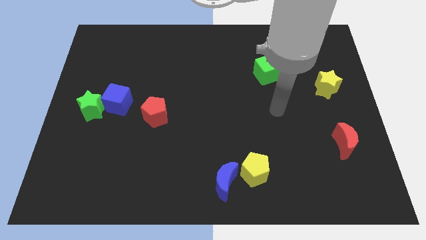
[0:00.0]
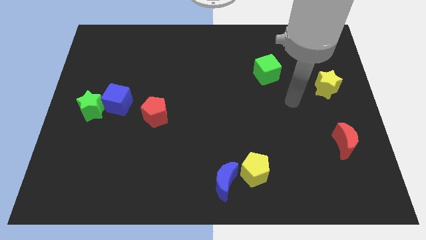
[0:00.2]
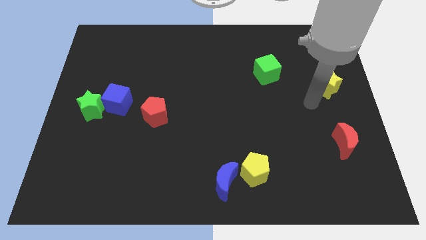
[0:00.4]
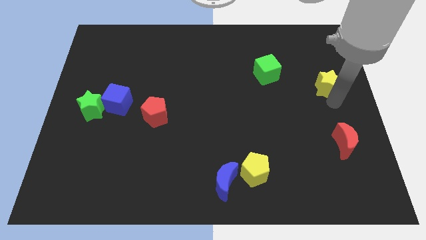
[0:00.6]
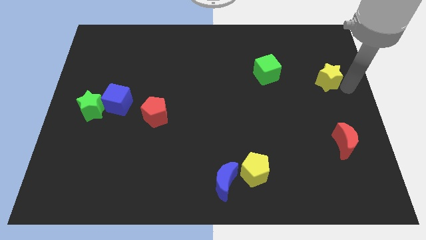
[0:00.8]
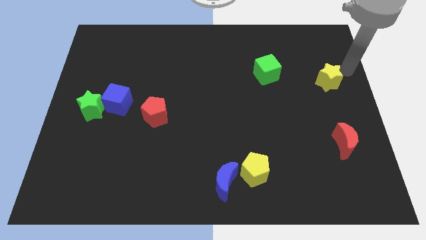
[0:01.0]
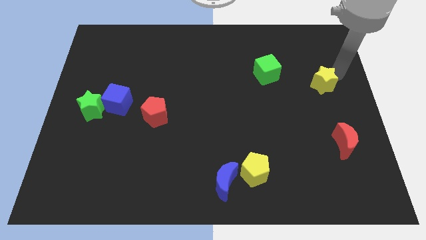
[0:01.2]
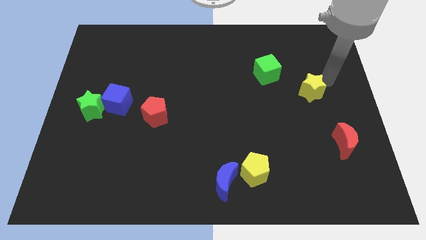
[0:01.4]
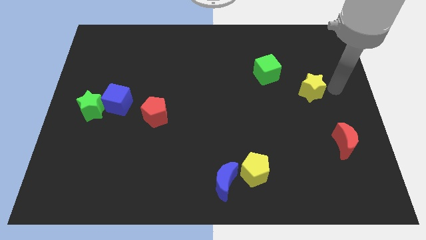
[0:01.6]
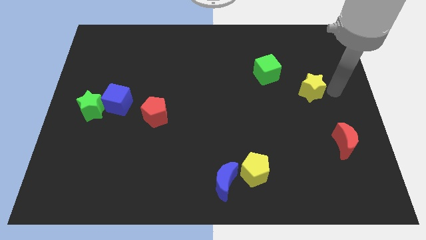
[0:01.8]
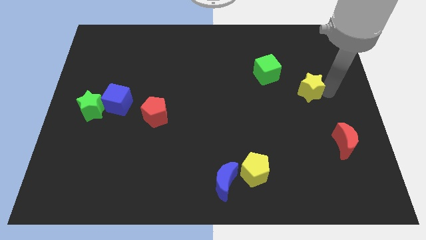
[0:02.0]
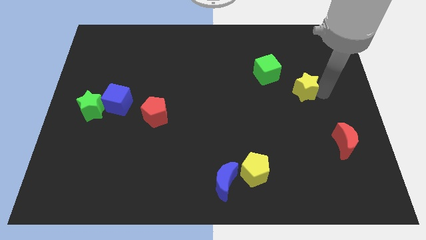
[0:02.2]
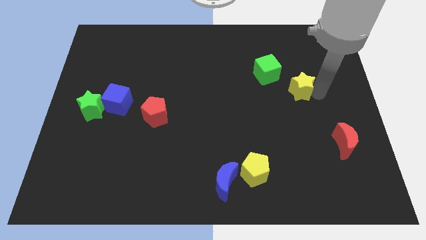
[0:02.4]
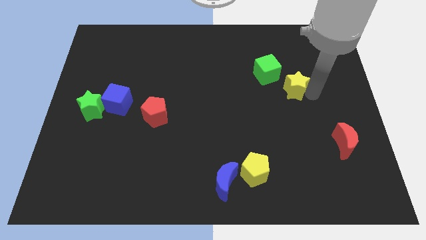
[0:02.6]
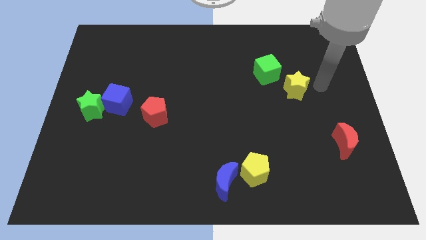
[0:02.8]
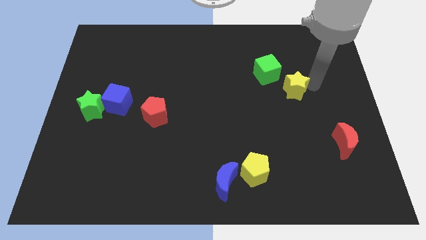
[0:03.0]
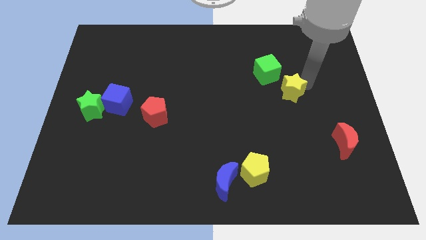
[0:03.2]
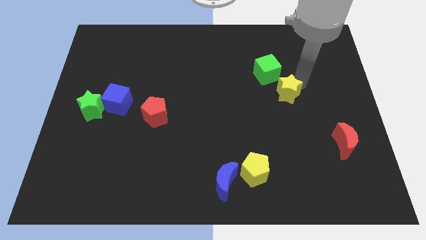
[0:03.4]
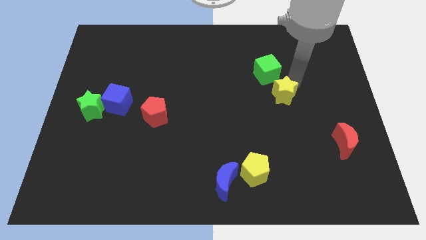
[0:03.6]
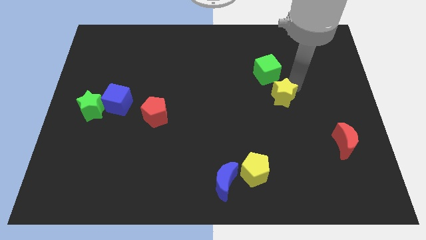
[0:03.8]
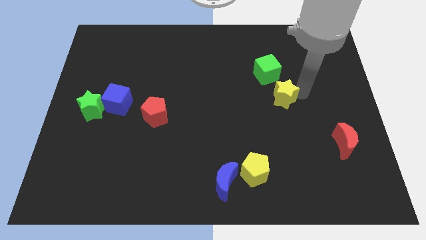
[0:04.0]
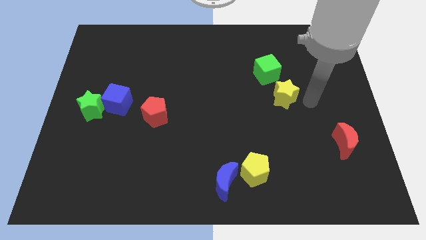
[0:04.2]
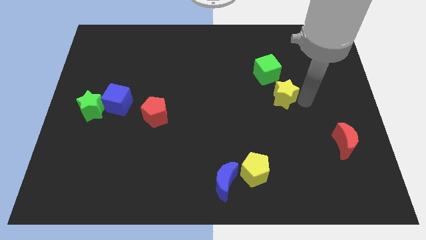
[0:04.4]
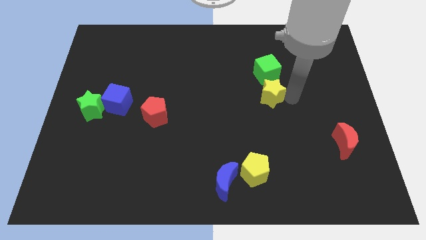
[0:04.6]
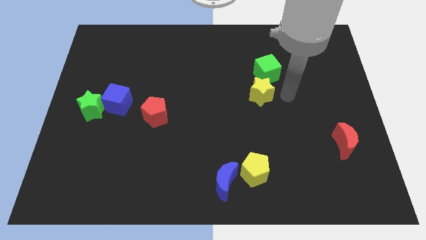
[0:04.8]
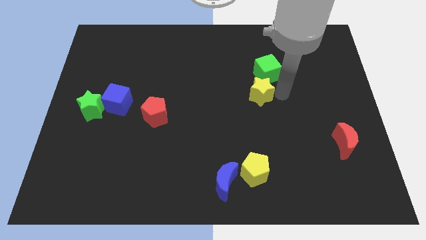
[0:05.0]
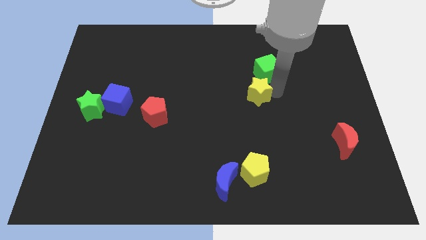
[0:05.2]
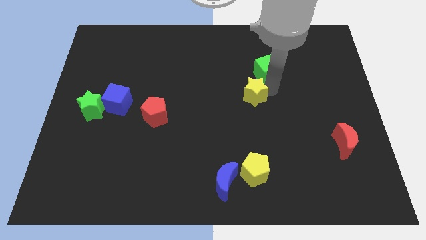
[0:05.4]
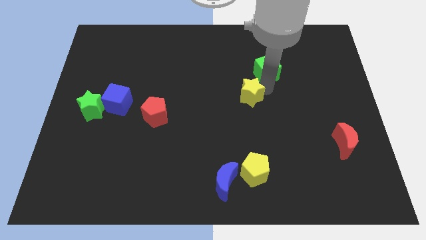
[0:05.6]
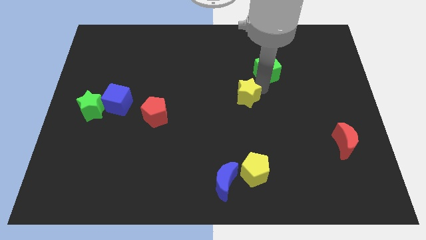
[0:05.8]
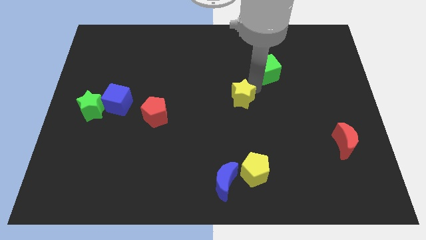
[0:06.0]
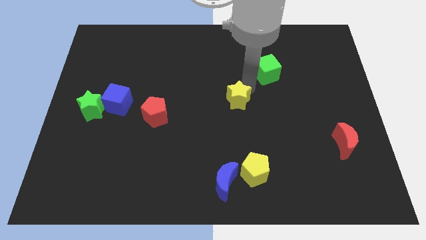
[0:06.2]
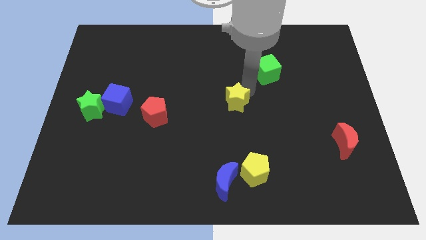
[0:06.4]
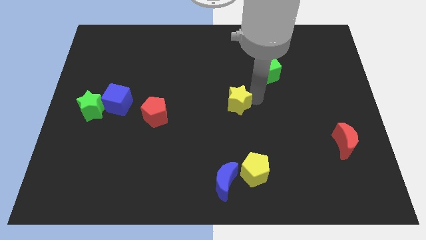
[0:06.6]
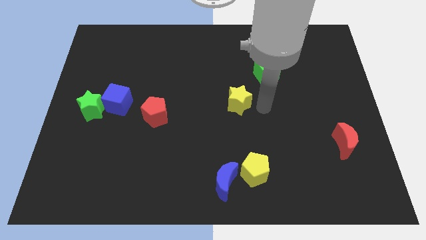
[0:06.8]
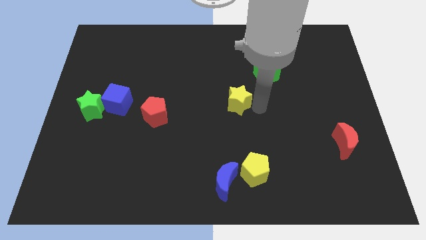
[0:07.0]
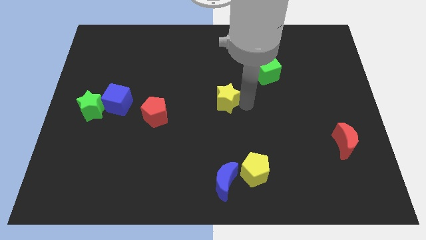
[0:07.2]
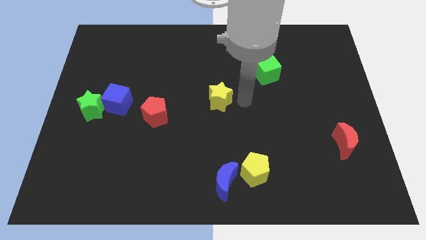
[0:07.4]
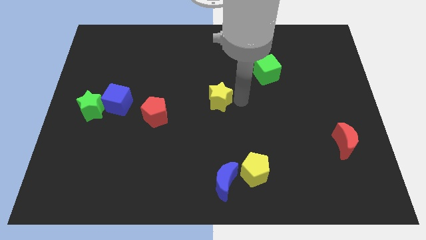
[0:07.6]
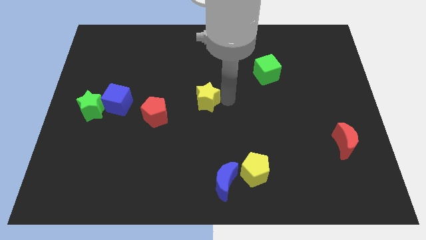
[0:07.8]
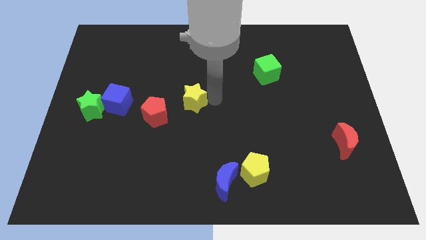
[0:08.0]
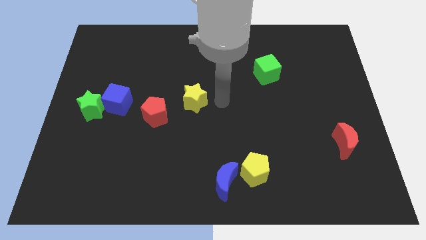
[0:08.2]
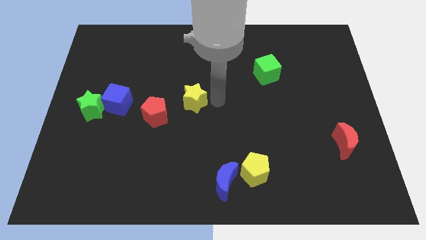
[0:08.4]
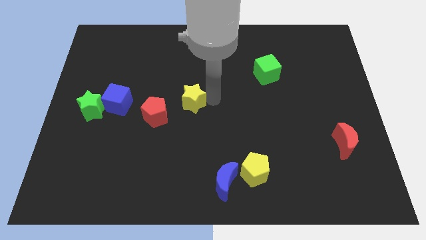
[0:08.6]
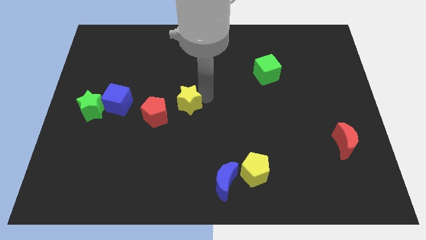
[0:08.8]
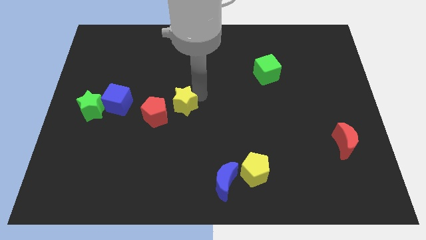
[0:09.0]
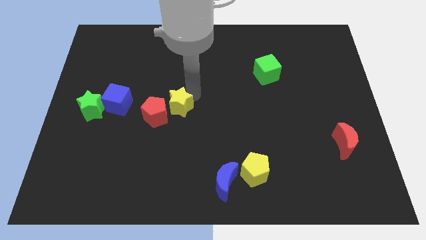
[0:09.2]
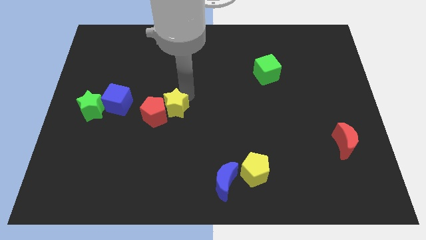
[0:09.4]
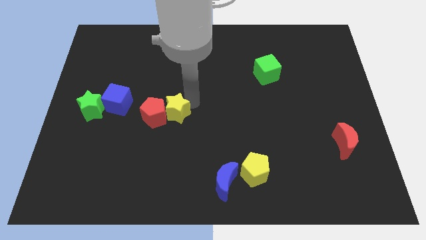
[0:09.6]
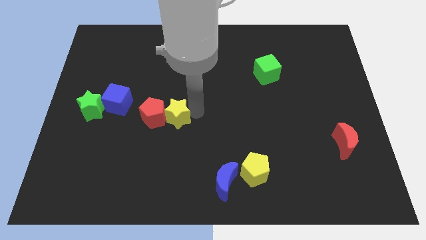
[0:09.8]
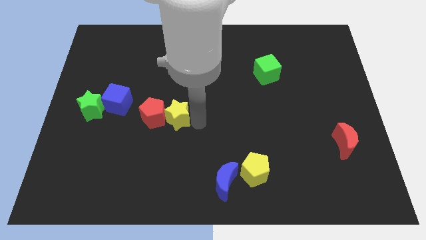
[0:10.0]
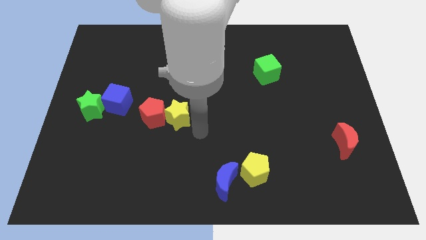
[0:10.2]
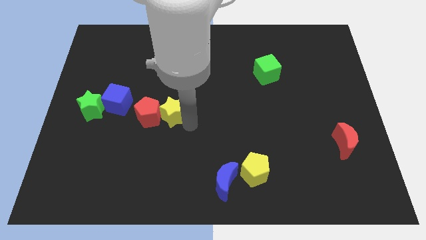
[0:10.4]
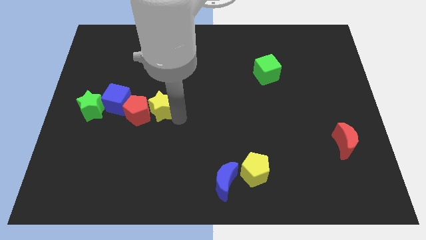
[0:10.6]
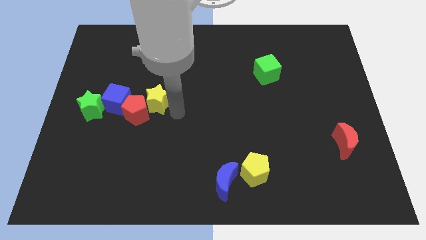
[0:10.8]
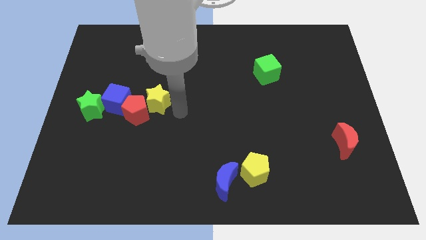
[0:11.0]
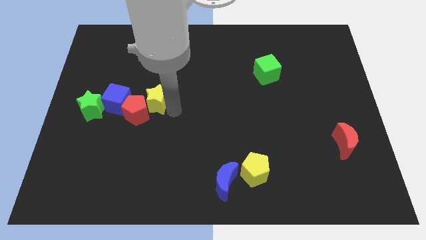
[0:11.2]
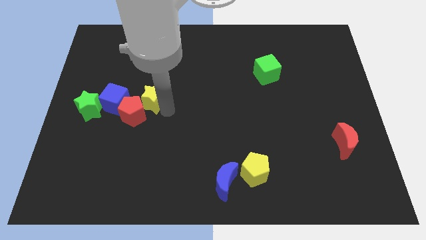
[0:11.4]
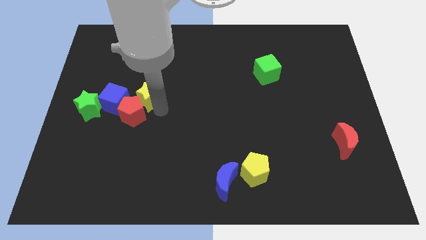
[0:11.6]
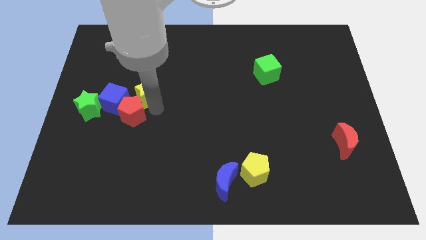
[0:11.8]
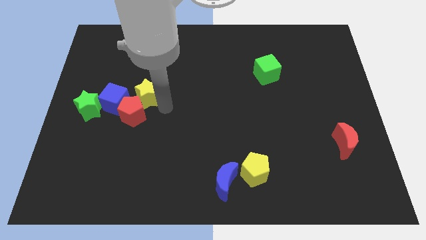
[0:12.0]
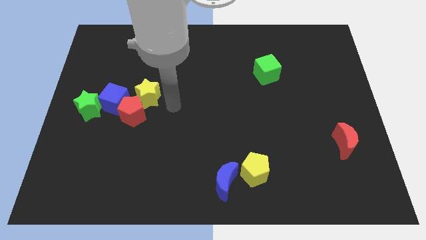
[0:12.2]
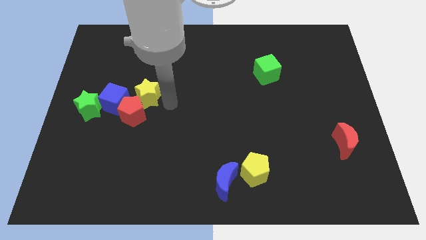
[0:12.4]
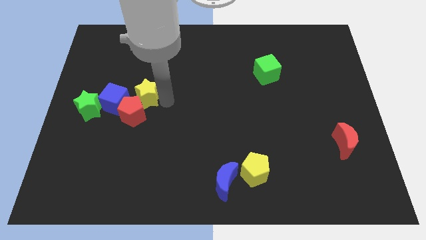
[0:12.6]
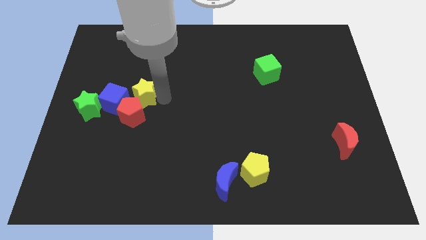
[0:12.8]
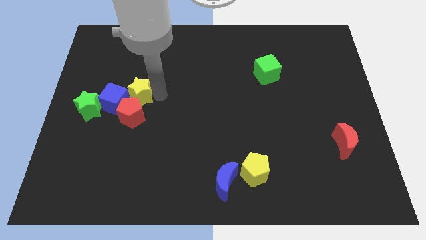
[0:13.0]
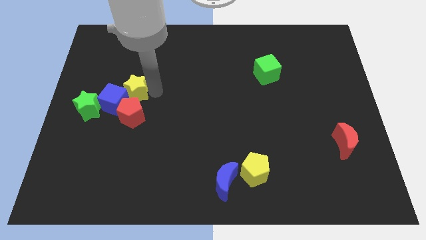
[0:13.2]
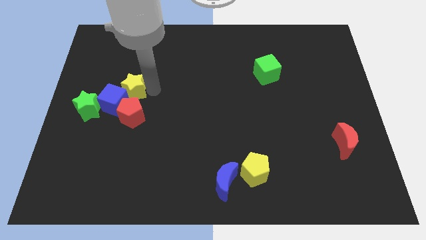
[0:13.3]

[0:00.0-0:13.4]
put the yellow star to the top right side of the green star

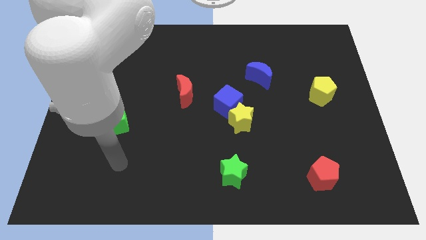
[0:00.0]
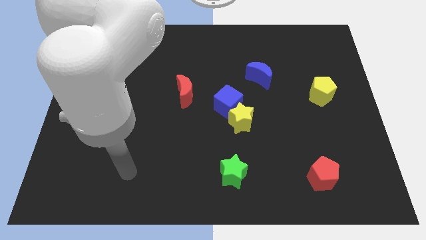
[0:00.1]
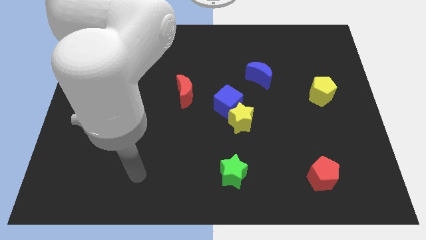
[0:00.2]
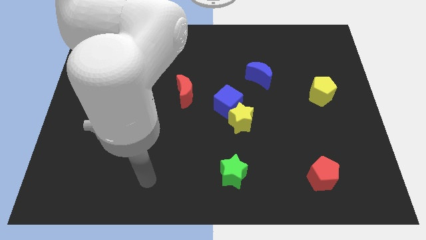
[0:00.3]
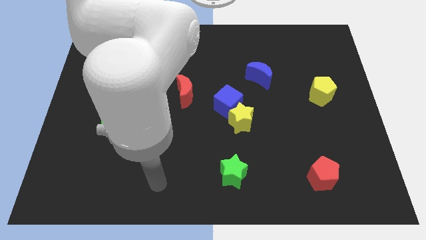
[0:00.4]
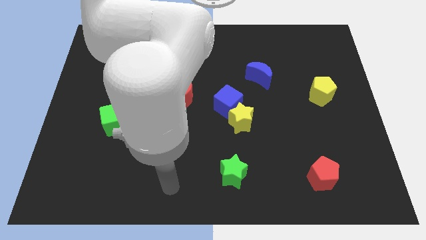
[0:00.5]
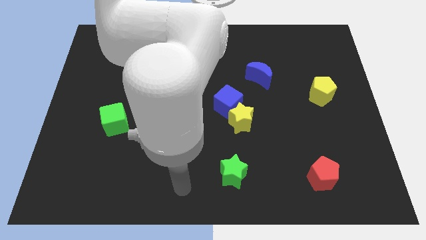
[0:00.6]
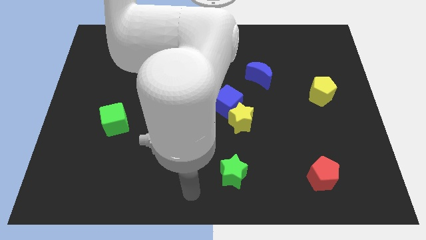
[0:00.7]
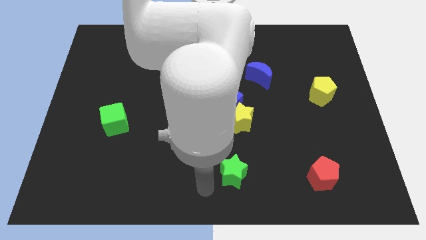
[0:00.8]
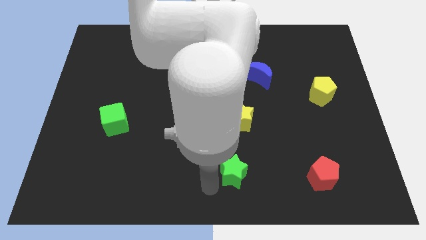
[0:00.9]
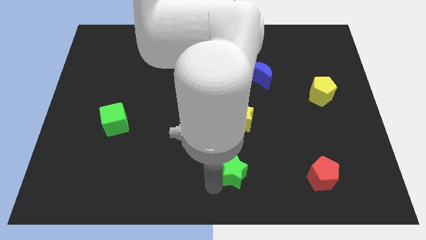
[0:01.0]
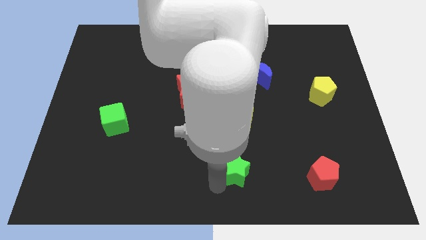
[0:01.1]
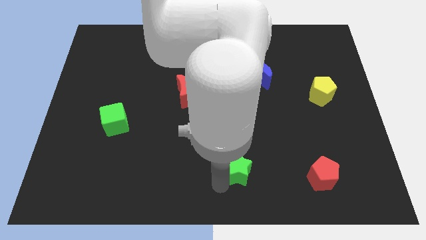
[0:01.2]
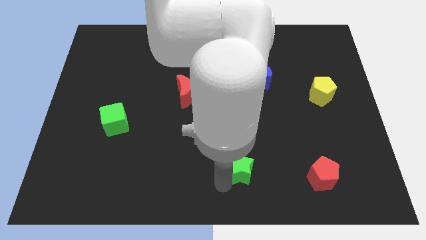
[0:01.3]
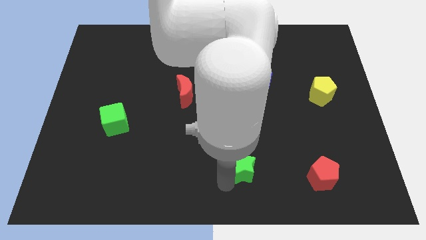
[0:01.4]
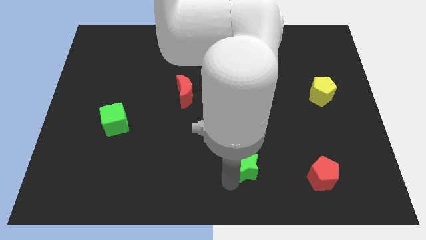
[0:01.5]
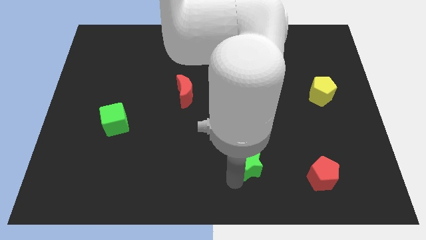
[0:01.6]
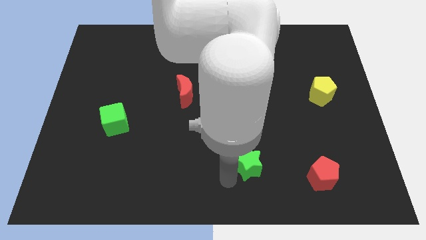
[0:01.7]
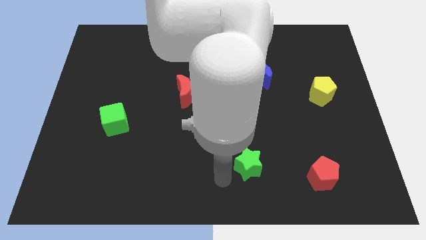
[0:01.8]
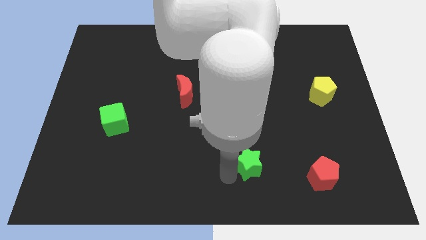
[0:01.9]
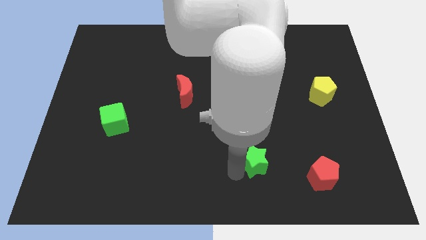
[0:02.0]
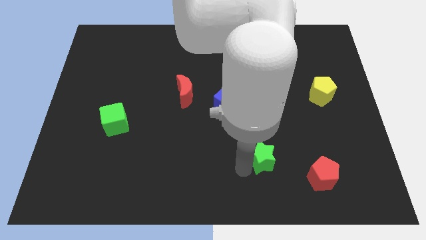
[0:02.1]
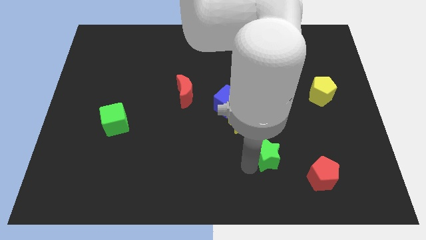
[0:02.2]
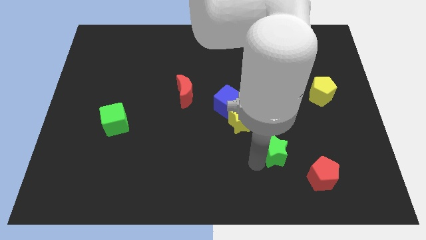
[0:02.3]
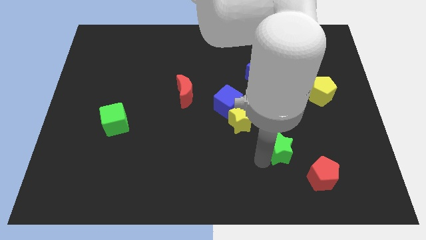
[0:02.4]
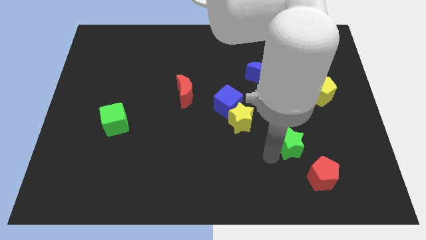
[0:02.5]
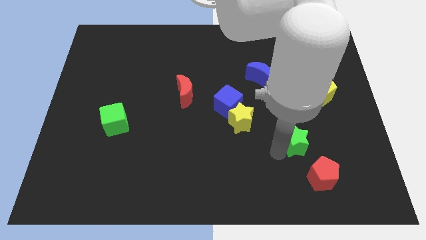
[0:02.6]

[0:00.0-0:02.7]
move the green star to the top of the red pentagon
